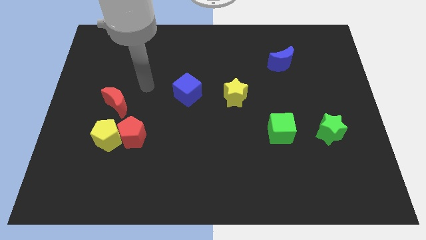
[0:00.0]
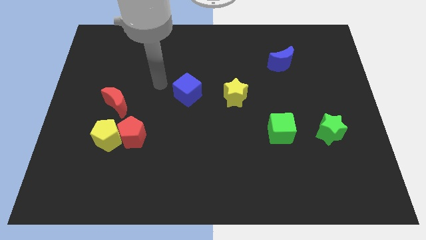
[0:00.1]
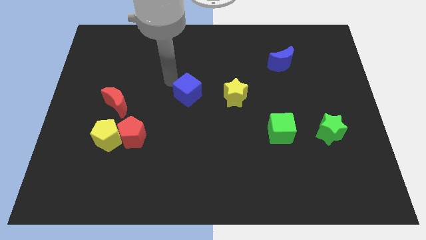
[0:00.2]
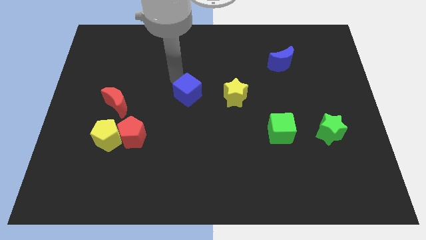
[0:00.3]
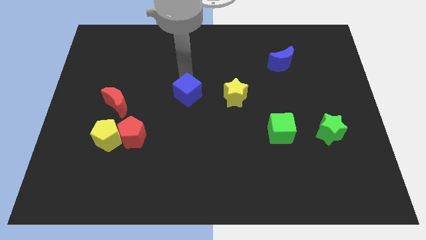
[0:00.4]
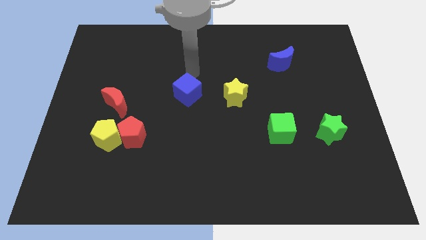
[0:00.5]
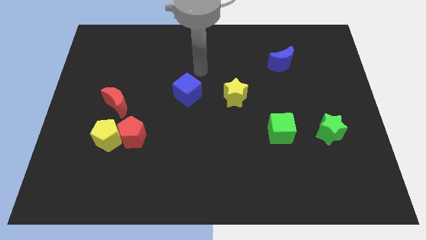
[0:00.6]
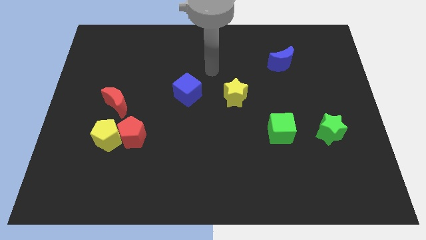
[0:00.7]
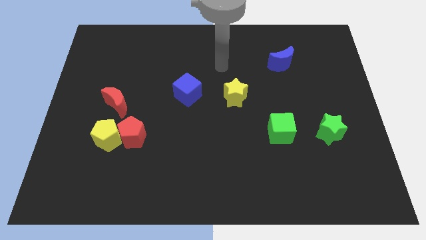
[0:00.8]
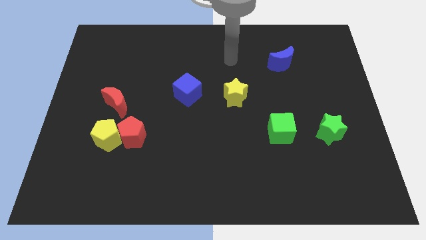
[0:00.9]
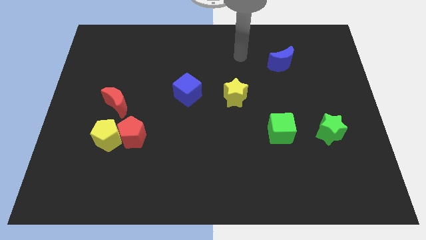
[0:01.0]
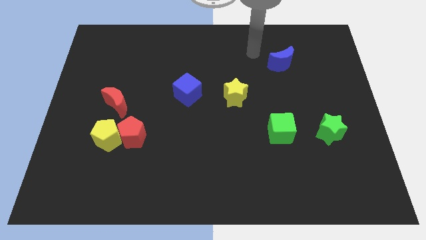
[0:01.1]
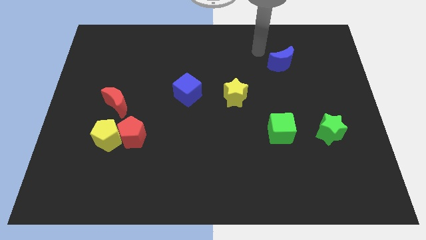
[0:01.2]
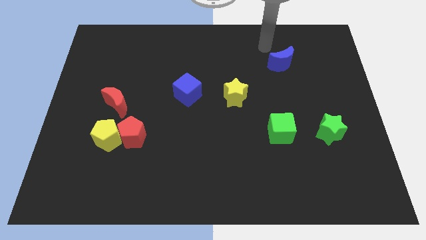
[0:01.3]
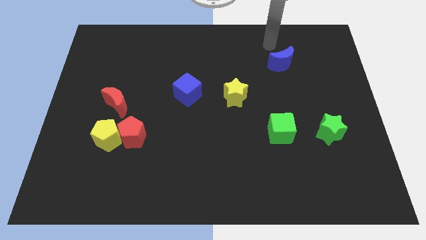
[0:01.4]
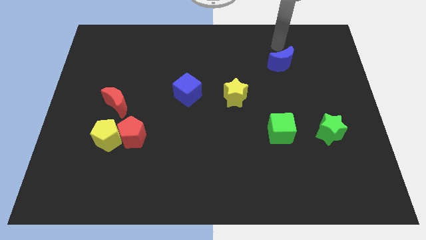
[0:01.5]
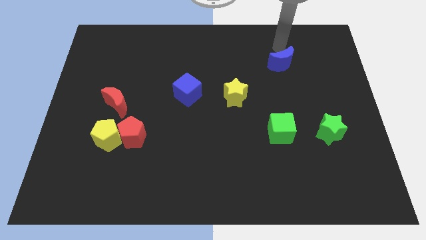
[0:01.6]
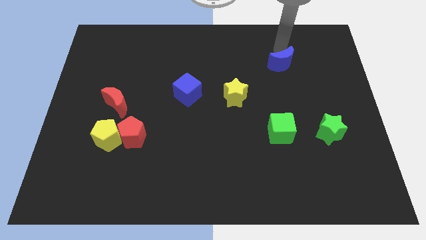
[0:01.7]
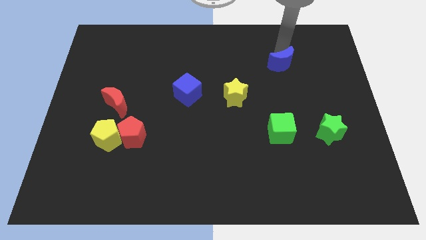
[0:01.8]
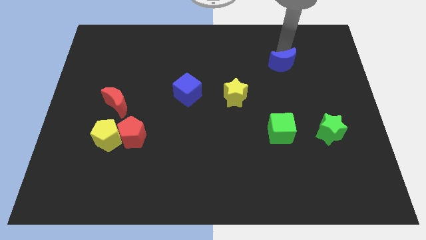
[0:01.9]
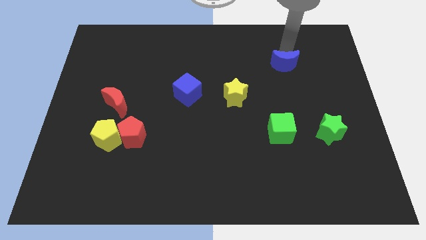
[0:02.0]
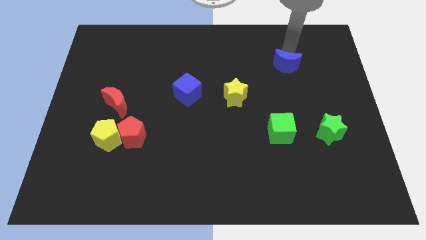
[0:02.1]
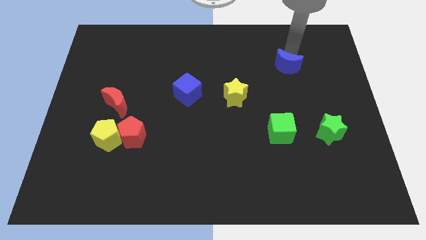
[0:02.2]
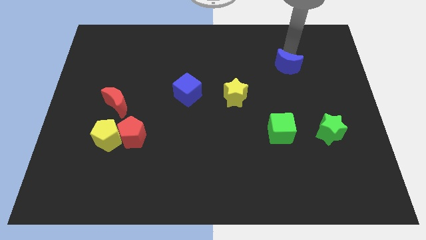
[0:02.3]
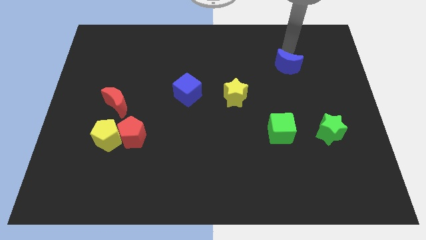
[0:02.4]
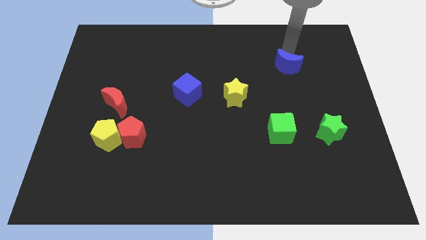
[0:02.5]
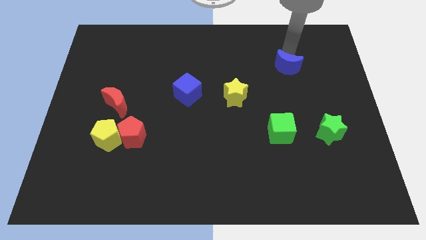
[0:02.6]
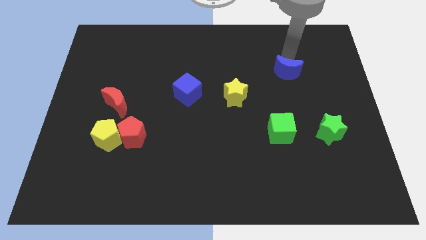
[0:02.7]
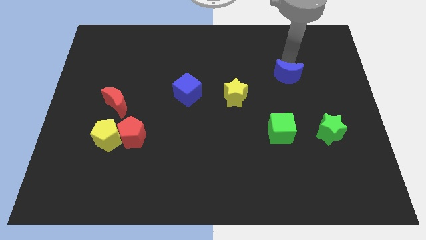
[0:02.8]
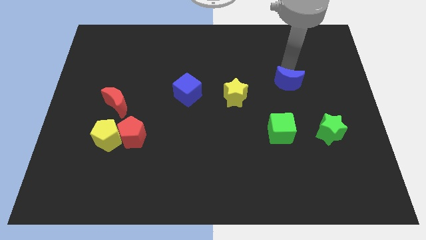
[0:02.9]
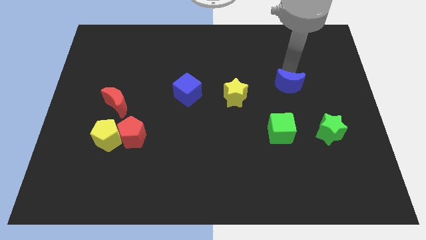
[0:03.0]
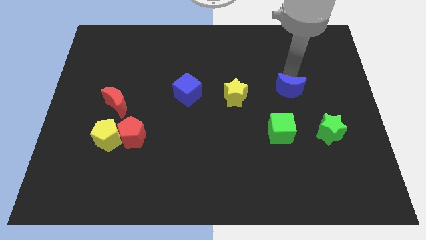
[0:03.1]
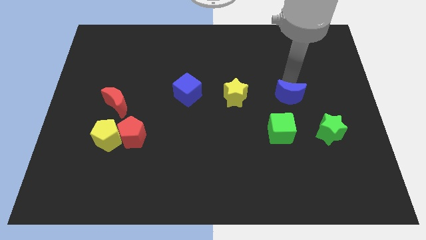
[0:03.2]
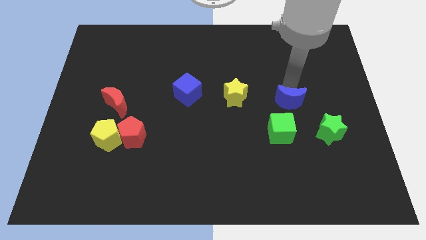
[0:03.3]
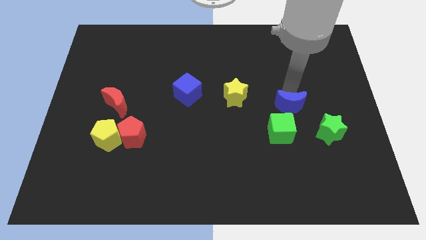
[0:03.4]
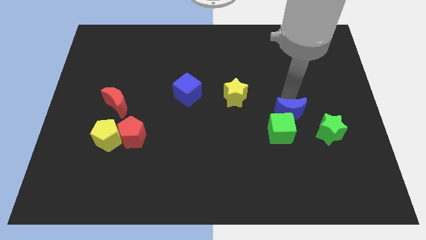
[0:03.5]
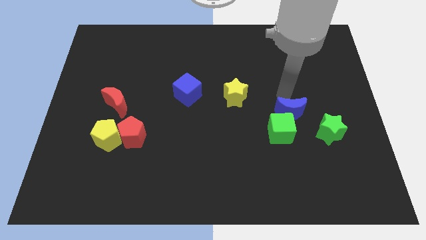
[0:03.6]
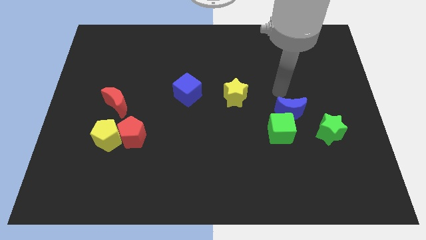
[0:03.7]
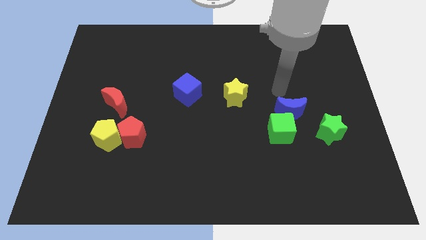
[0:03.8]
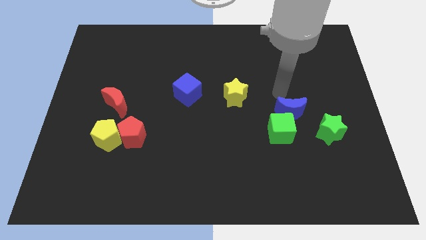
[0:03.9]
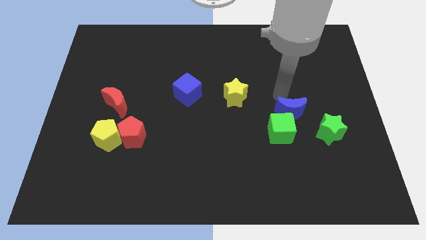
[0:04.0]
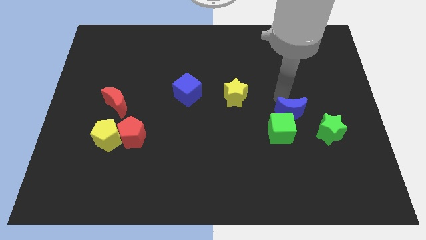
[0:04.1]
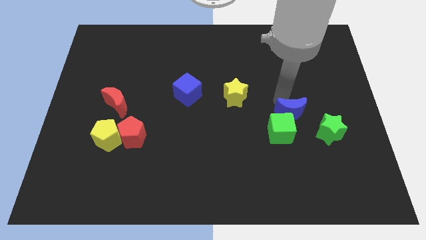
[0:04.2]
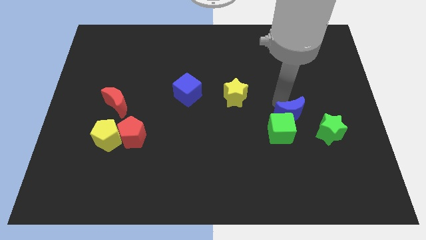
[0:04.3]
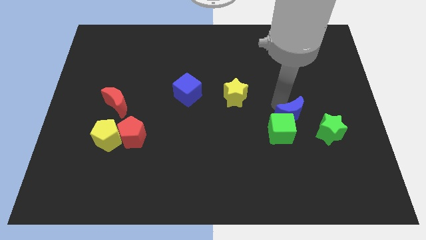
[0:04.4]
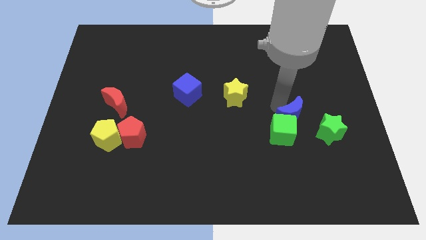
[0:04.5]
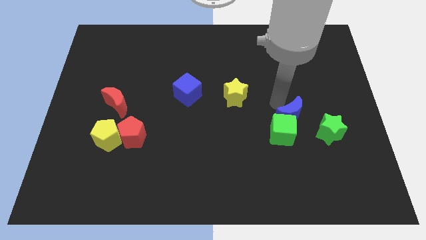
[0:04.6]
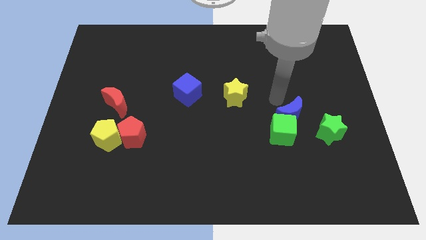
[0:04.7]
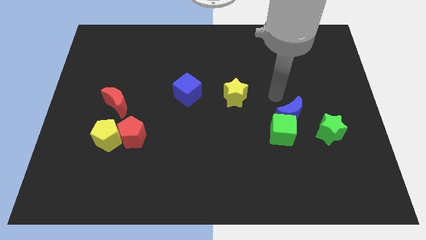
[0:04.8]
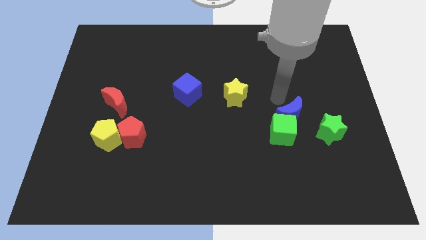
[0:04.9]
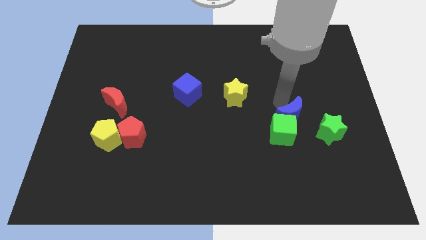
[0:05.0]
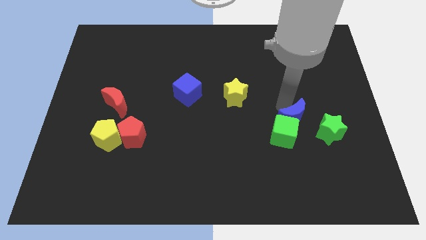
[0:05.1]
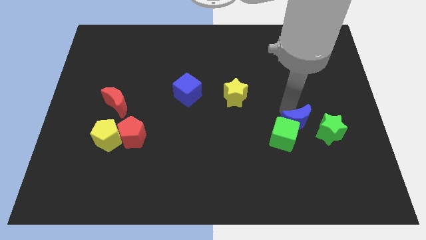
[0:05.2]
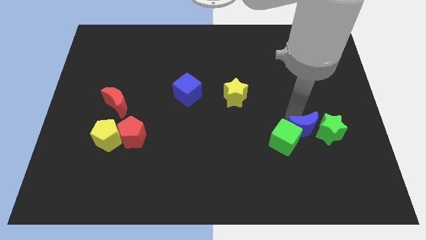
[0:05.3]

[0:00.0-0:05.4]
push the blue moon down

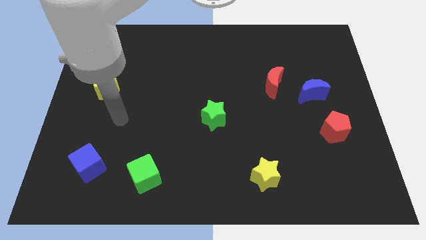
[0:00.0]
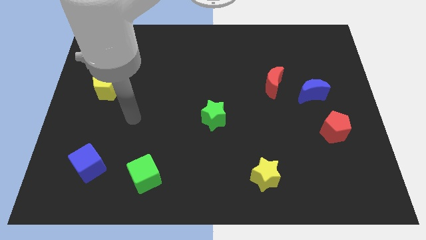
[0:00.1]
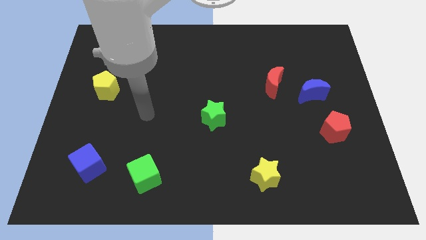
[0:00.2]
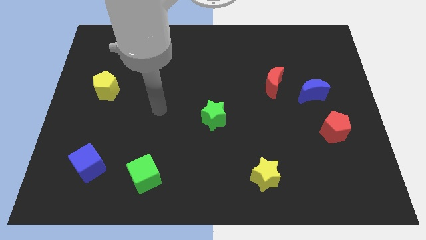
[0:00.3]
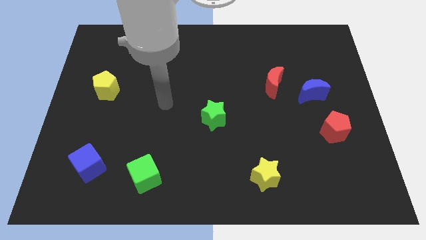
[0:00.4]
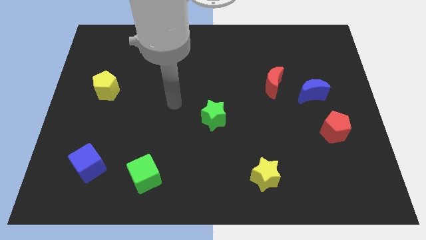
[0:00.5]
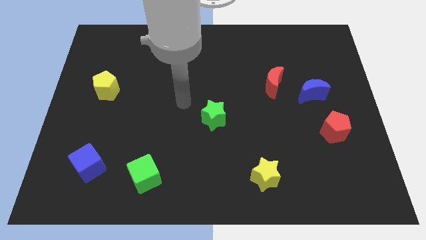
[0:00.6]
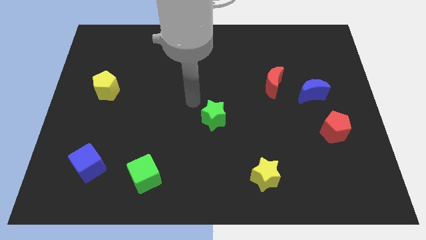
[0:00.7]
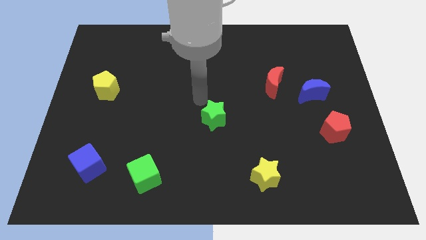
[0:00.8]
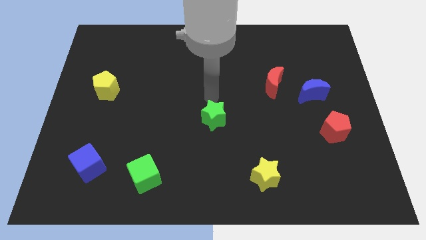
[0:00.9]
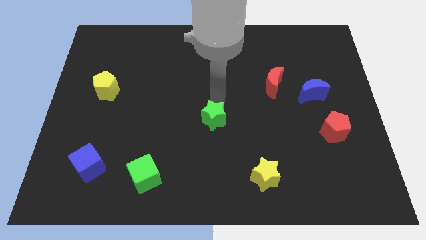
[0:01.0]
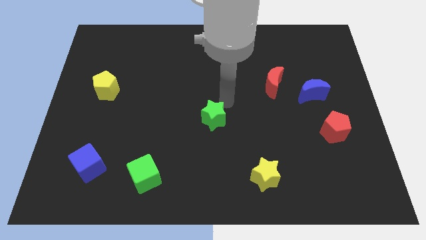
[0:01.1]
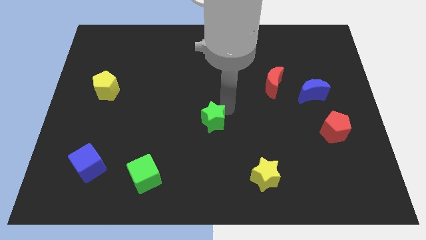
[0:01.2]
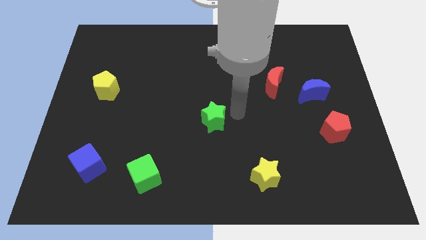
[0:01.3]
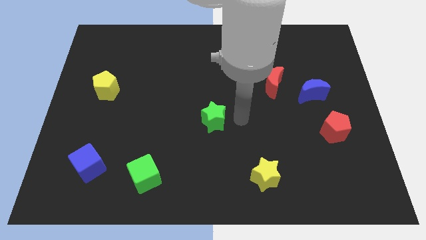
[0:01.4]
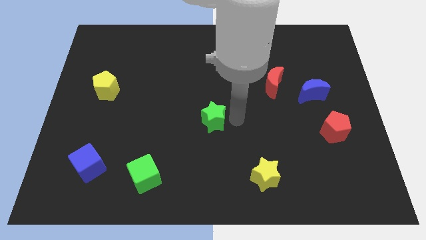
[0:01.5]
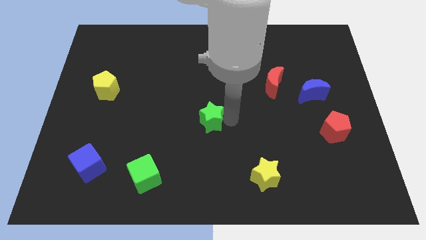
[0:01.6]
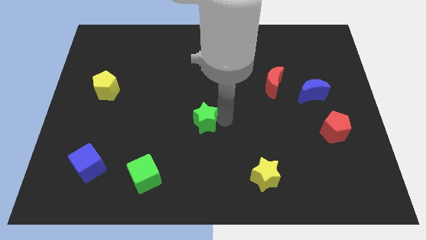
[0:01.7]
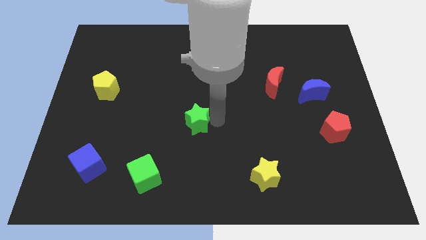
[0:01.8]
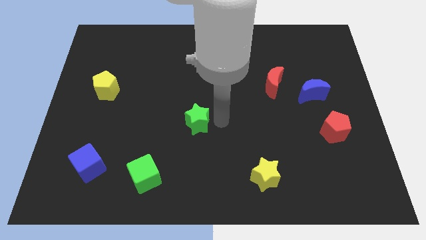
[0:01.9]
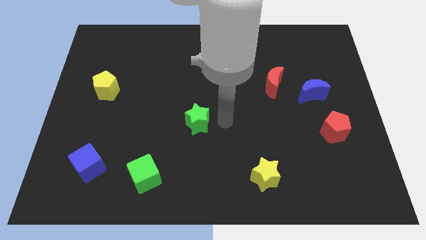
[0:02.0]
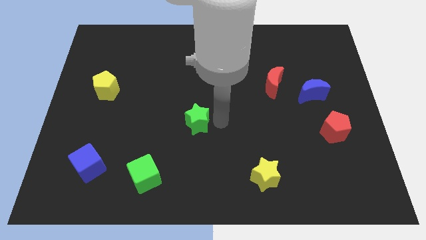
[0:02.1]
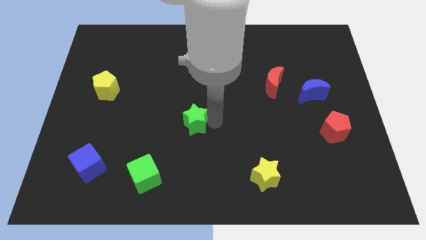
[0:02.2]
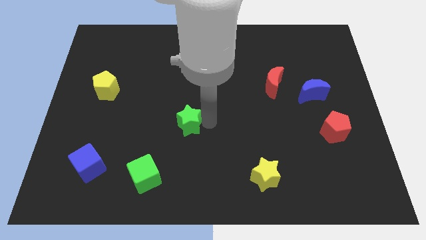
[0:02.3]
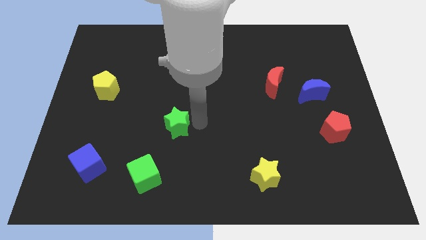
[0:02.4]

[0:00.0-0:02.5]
push the green star to the left a little

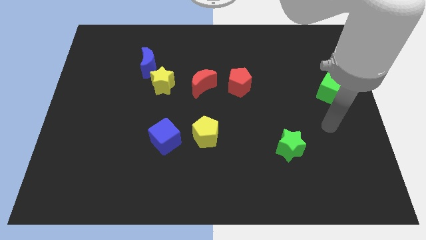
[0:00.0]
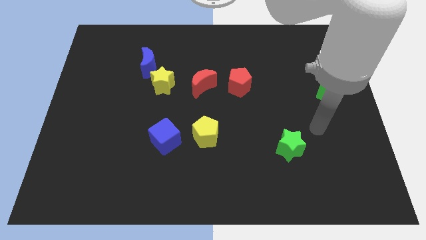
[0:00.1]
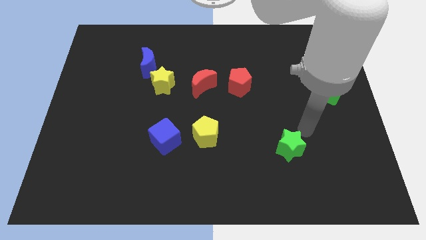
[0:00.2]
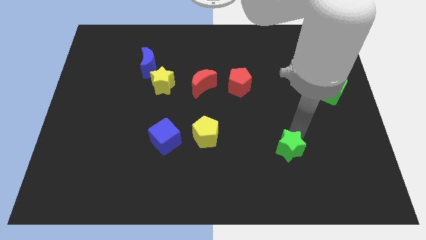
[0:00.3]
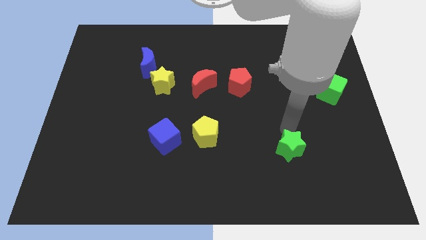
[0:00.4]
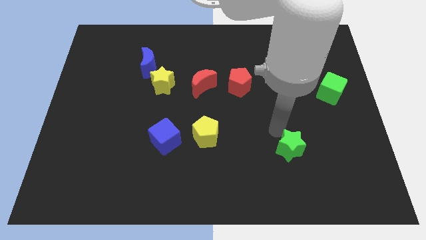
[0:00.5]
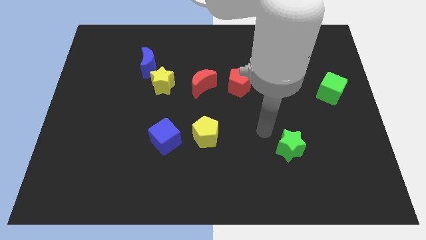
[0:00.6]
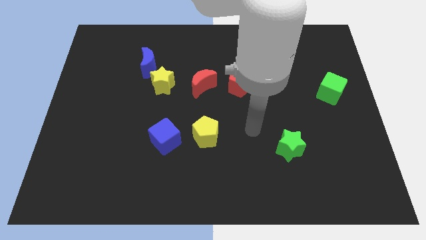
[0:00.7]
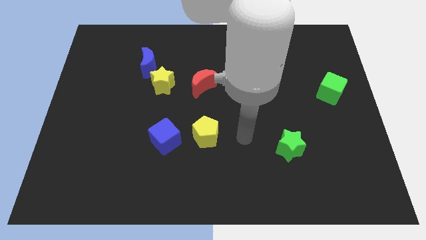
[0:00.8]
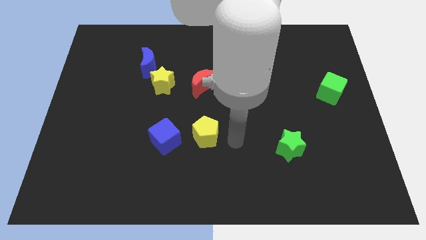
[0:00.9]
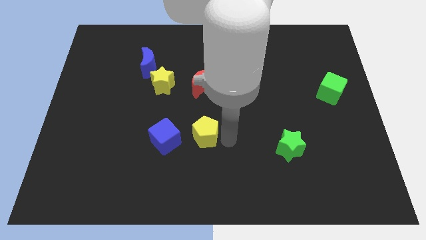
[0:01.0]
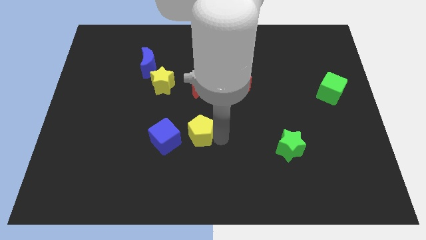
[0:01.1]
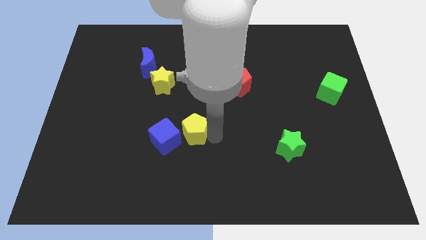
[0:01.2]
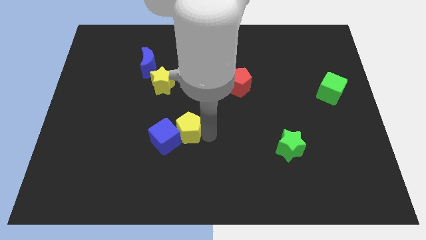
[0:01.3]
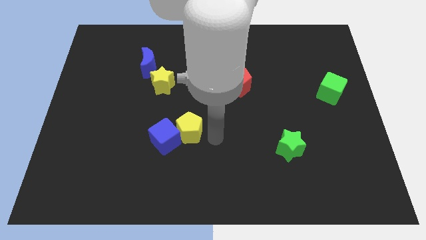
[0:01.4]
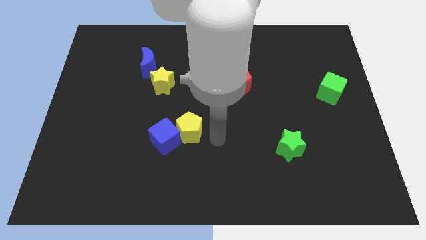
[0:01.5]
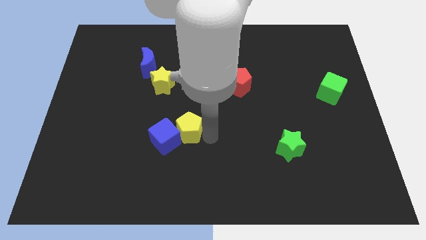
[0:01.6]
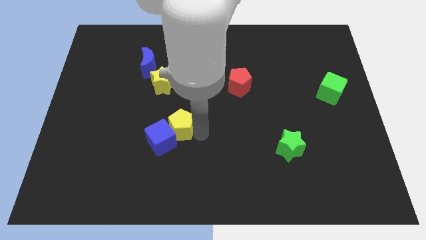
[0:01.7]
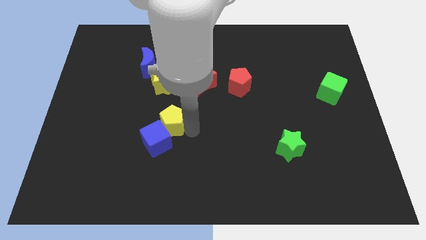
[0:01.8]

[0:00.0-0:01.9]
slightly push the yellow pentagon to the left
